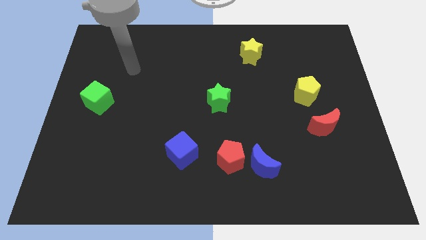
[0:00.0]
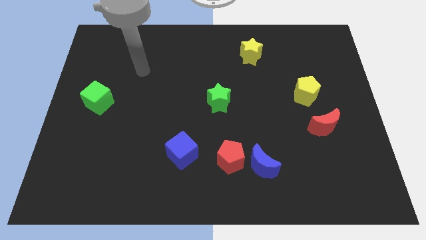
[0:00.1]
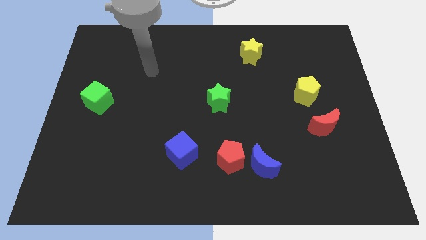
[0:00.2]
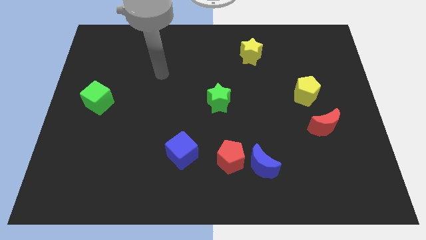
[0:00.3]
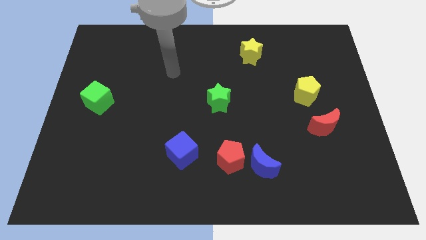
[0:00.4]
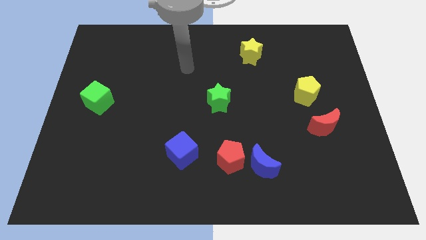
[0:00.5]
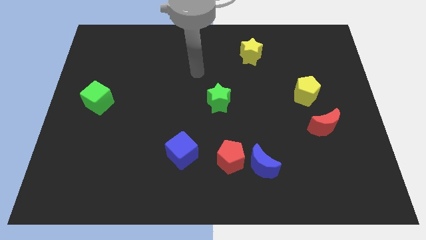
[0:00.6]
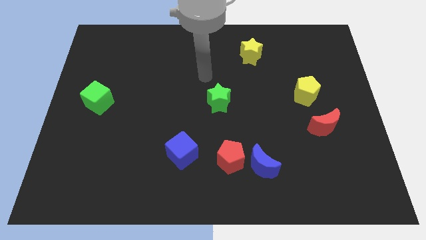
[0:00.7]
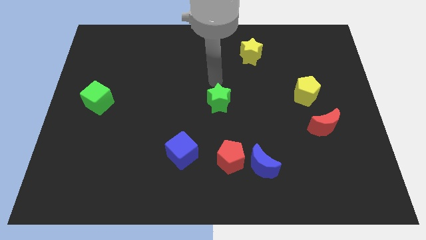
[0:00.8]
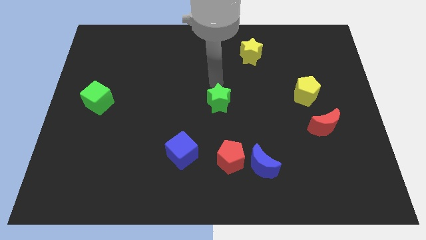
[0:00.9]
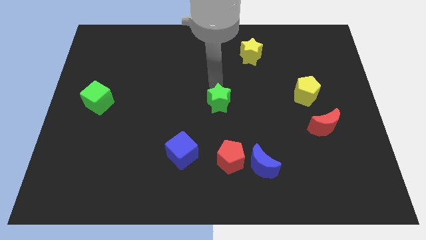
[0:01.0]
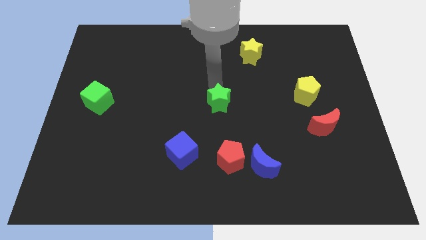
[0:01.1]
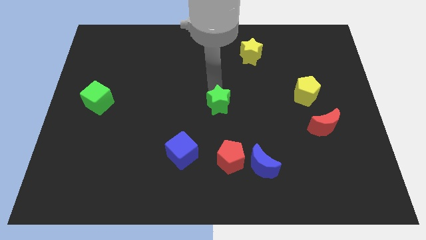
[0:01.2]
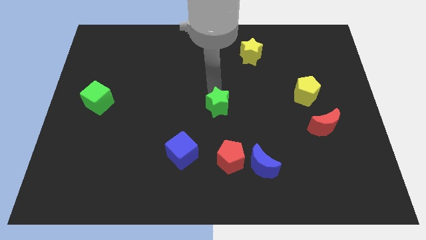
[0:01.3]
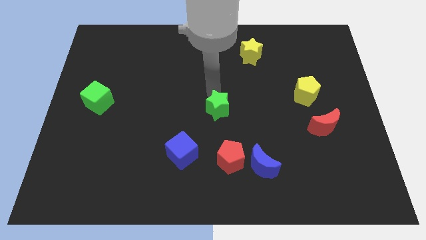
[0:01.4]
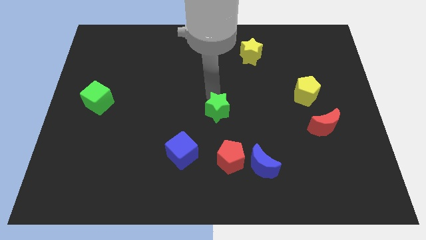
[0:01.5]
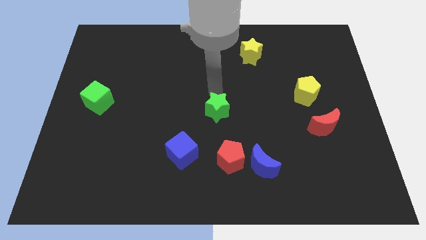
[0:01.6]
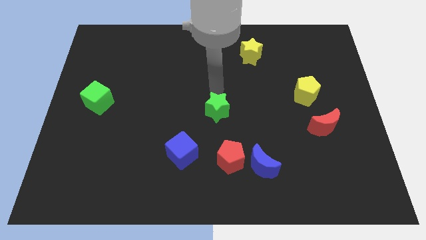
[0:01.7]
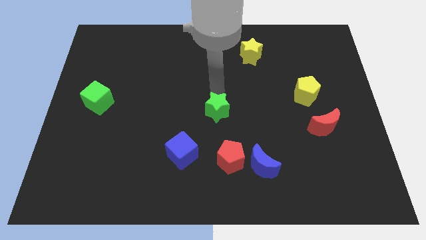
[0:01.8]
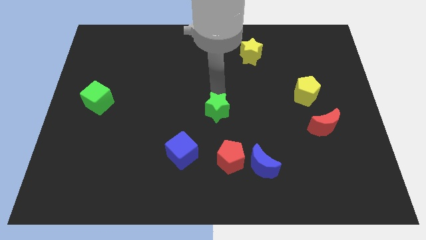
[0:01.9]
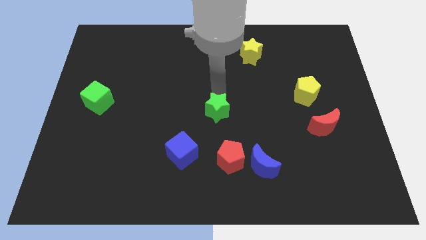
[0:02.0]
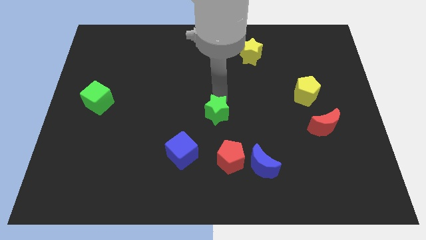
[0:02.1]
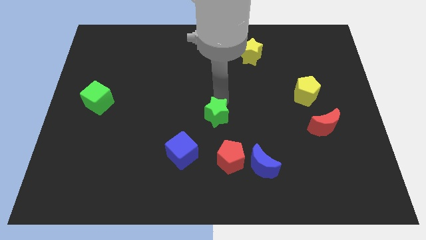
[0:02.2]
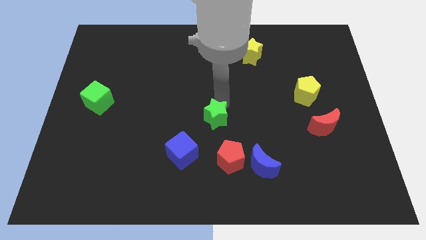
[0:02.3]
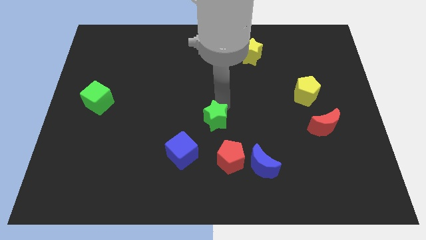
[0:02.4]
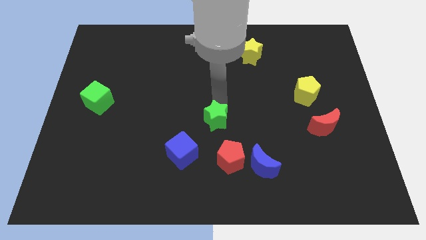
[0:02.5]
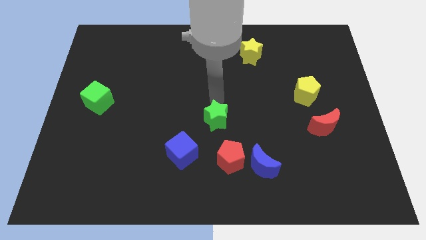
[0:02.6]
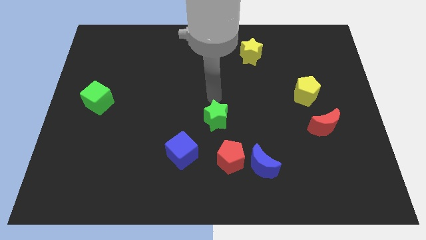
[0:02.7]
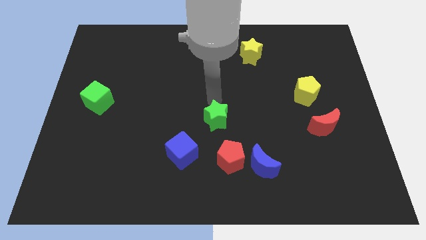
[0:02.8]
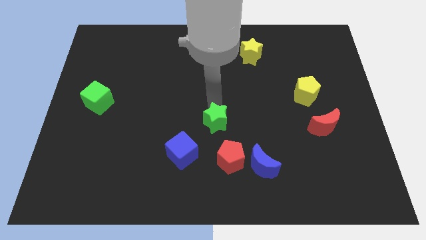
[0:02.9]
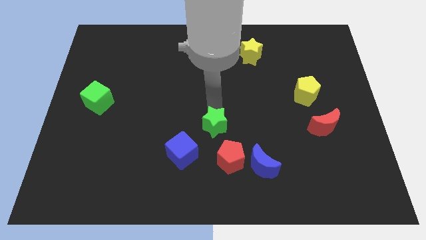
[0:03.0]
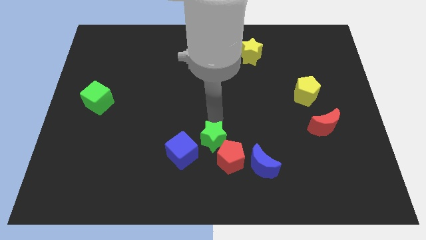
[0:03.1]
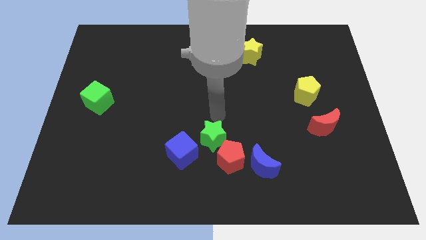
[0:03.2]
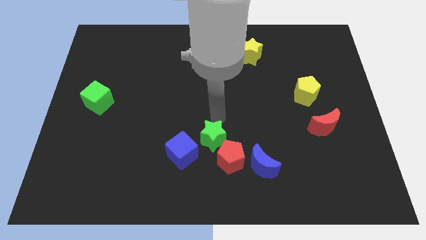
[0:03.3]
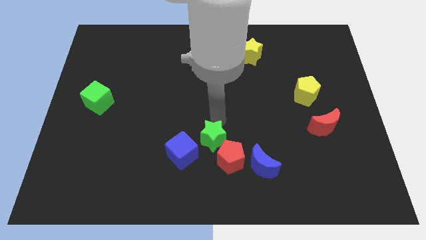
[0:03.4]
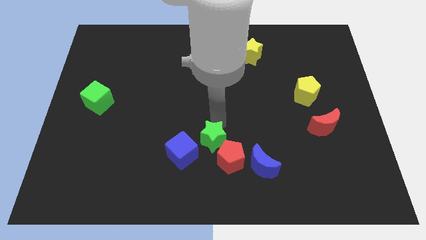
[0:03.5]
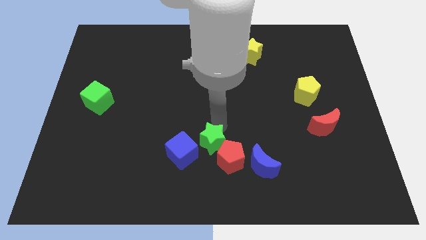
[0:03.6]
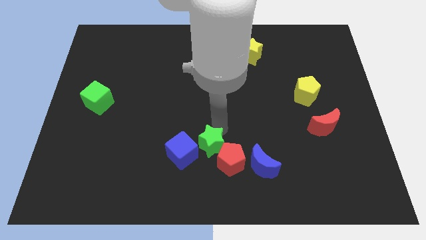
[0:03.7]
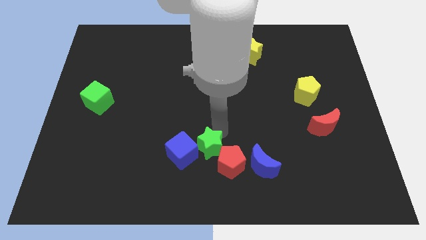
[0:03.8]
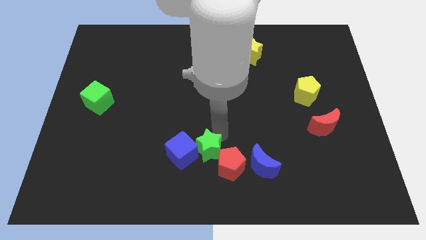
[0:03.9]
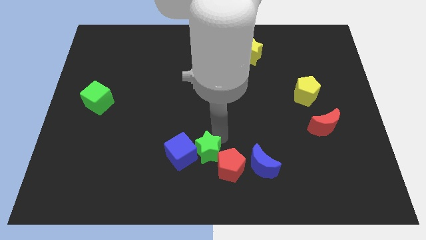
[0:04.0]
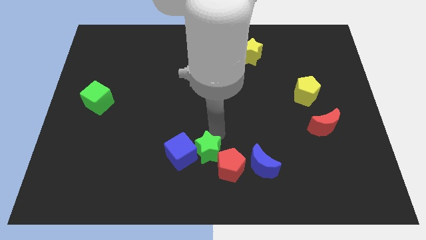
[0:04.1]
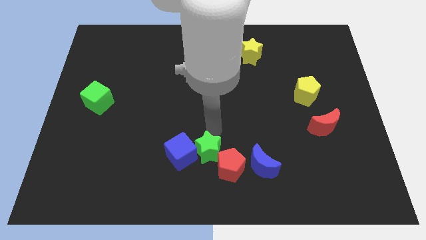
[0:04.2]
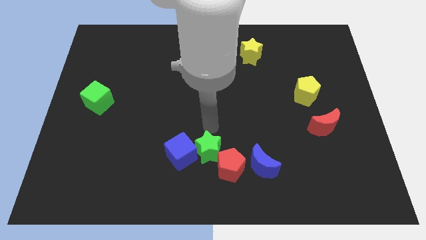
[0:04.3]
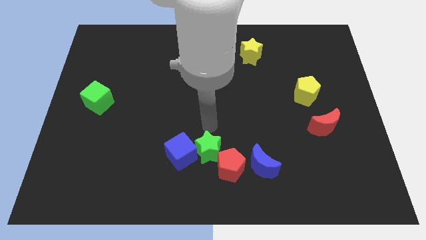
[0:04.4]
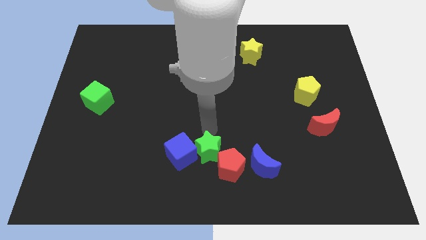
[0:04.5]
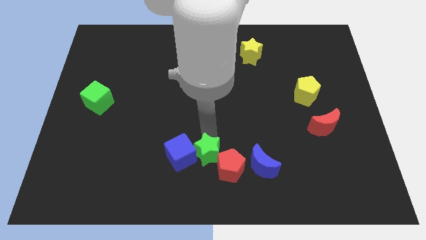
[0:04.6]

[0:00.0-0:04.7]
slide the green star to the bottom

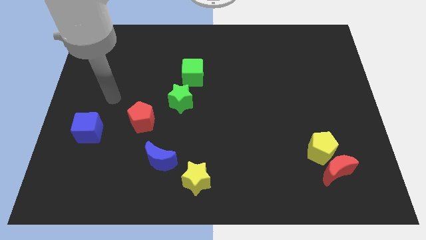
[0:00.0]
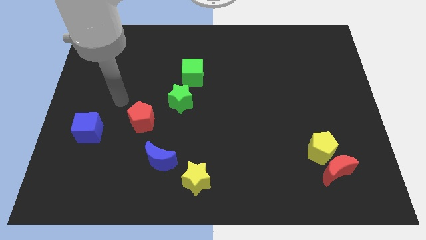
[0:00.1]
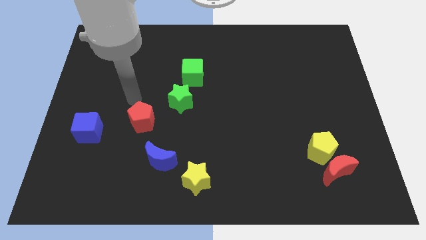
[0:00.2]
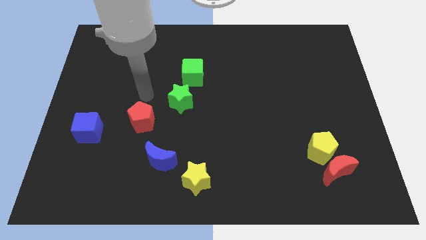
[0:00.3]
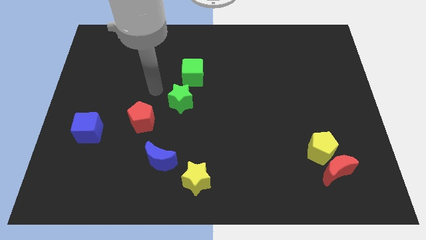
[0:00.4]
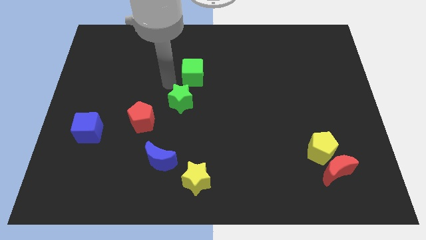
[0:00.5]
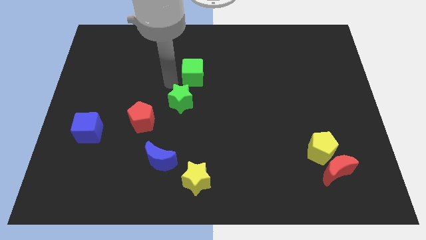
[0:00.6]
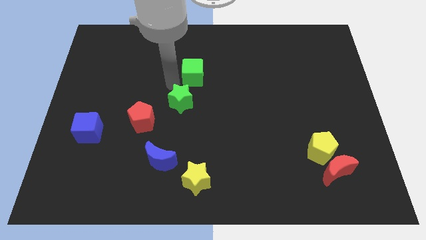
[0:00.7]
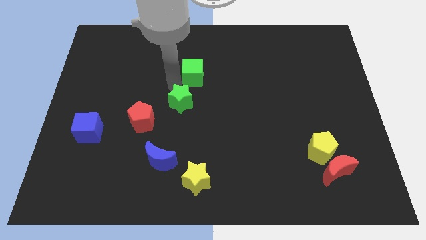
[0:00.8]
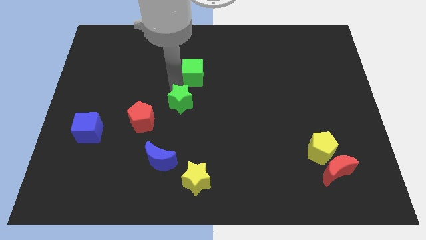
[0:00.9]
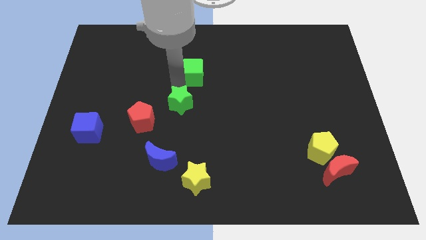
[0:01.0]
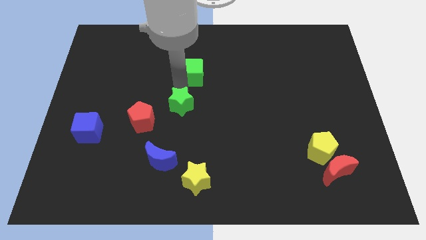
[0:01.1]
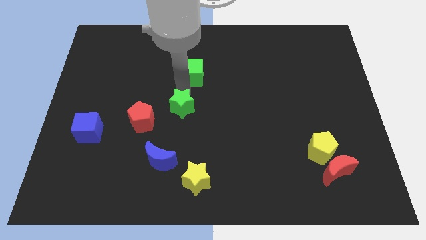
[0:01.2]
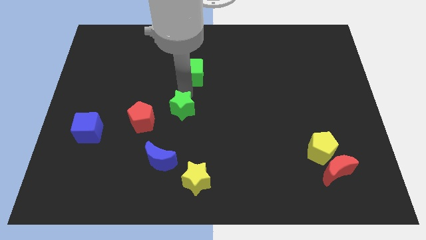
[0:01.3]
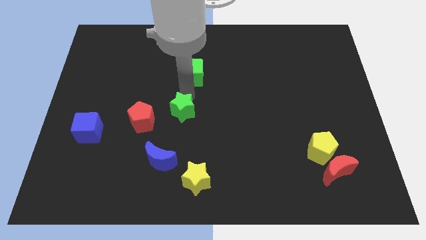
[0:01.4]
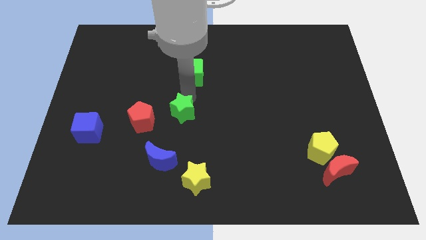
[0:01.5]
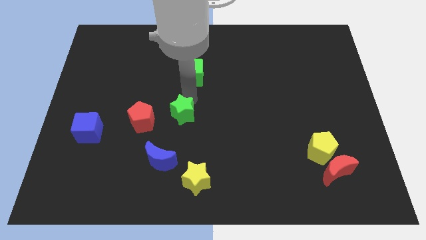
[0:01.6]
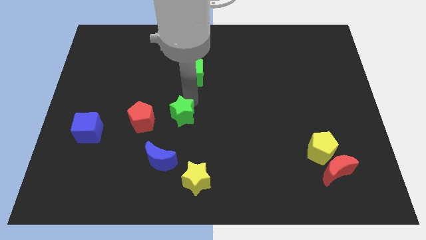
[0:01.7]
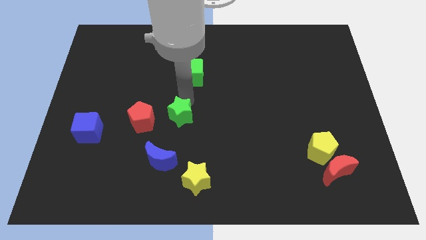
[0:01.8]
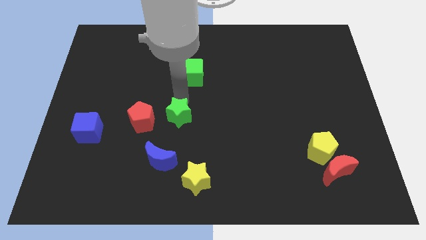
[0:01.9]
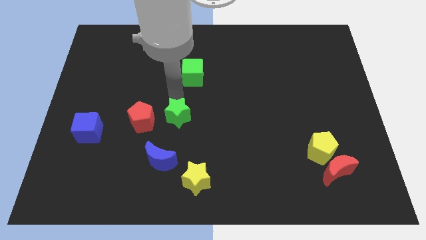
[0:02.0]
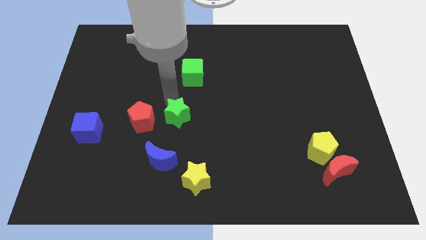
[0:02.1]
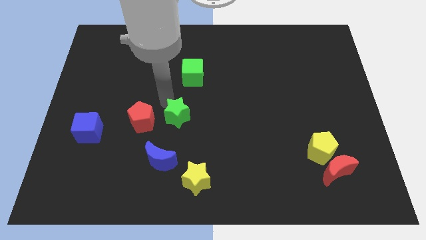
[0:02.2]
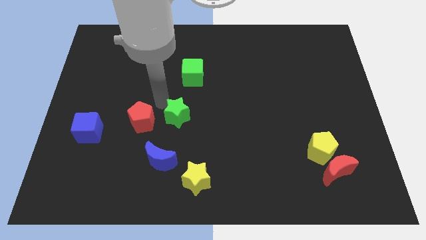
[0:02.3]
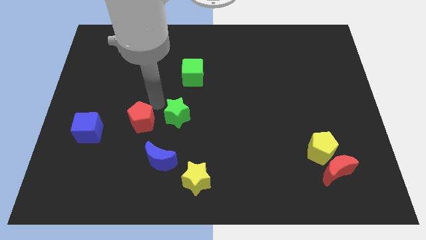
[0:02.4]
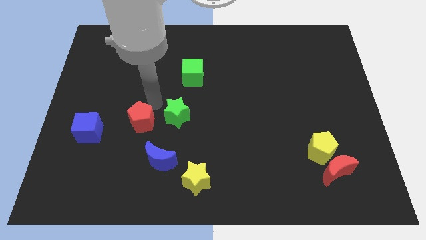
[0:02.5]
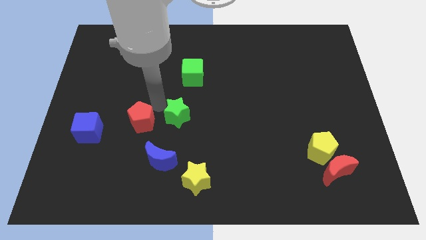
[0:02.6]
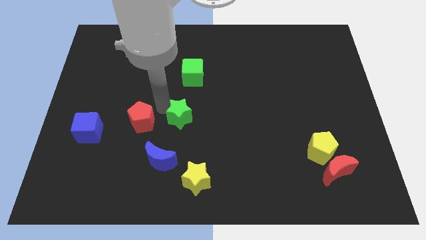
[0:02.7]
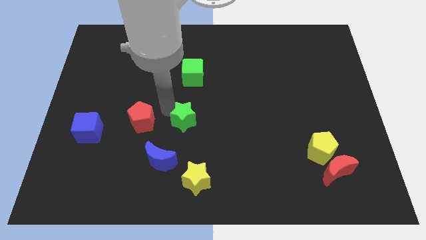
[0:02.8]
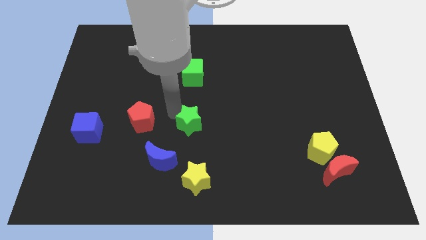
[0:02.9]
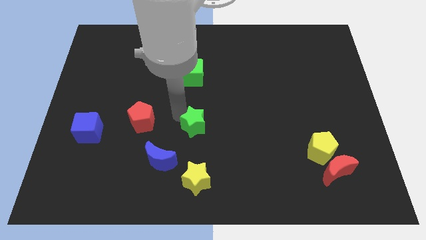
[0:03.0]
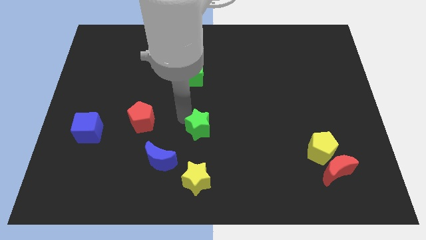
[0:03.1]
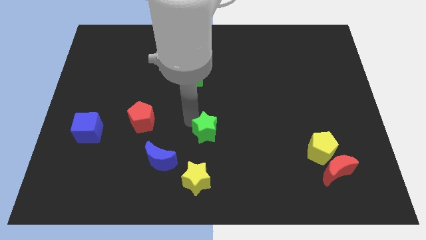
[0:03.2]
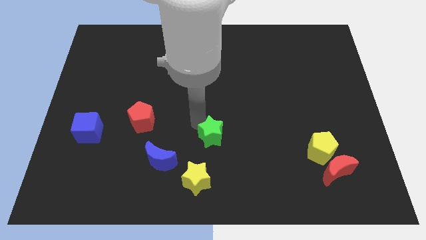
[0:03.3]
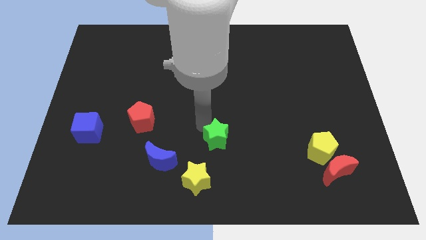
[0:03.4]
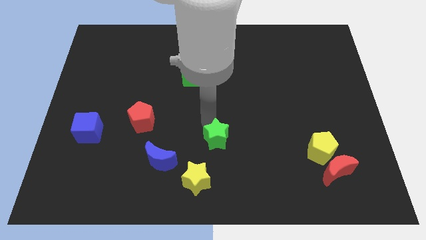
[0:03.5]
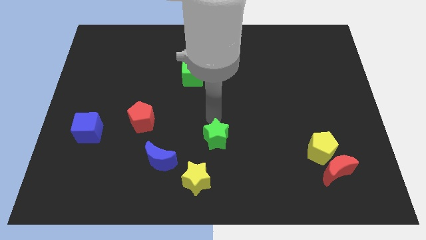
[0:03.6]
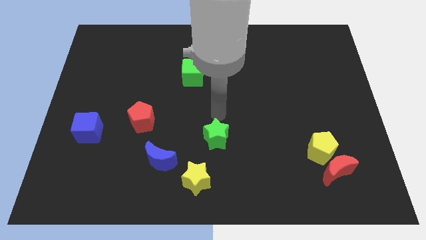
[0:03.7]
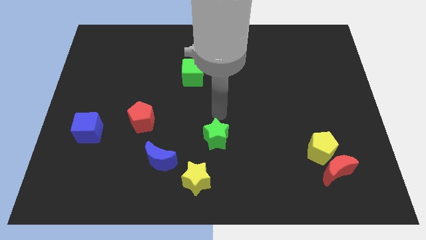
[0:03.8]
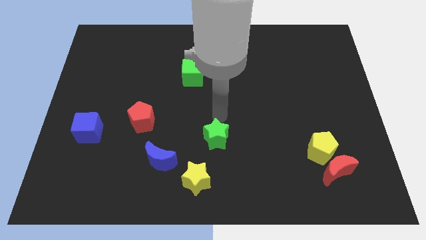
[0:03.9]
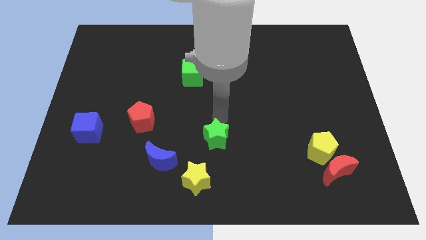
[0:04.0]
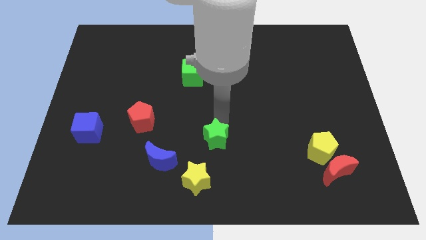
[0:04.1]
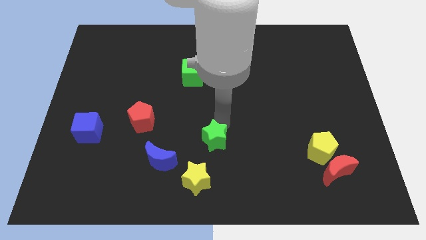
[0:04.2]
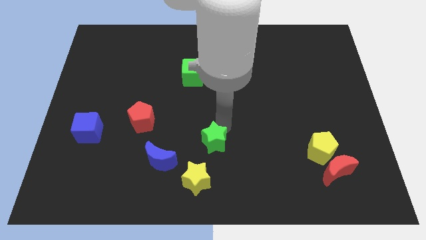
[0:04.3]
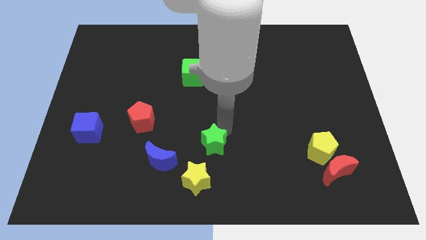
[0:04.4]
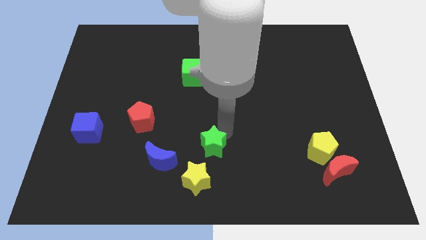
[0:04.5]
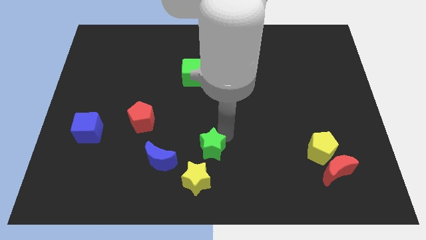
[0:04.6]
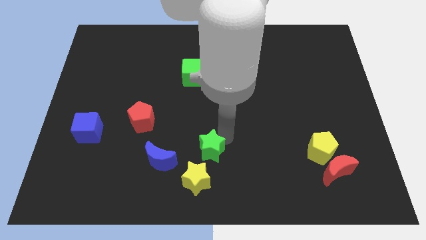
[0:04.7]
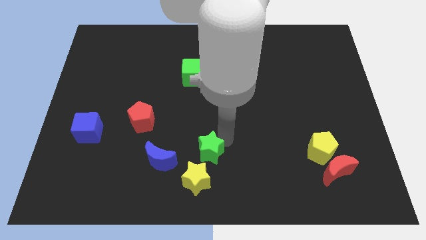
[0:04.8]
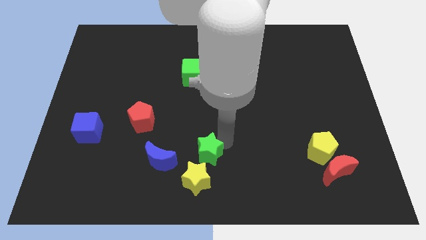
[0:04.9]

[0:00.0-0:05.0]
put the green star to the bottom
